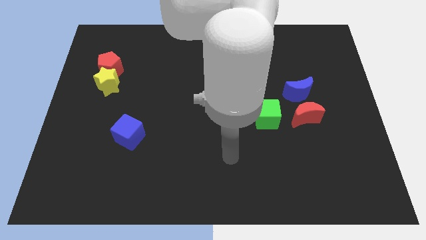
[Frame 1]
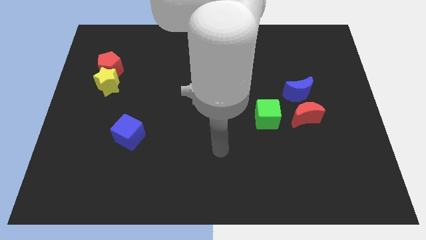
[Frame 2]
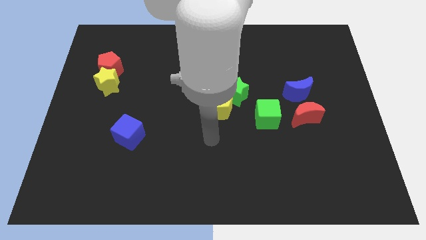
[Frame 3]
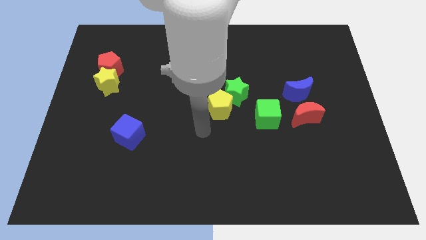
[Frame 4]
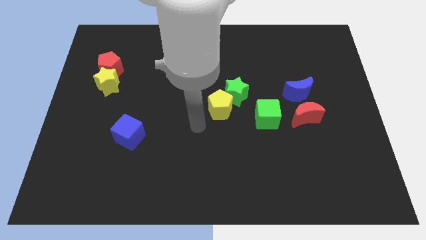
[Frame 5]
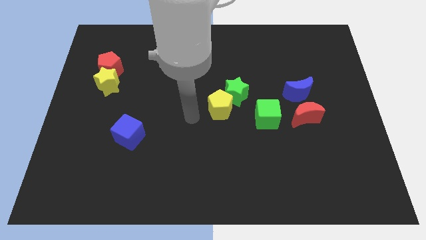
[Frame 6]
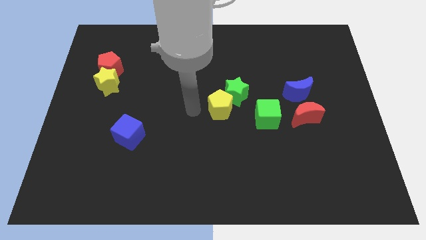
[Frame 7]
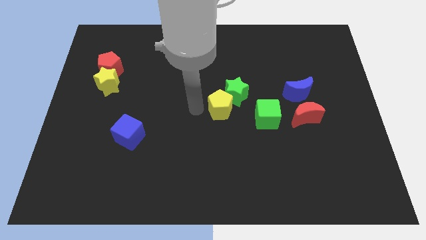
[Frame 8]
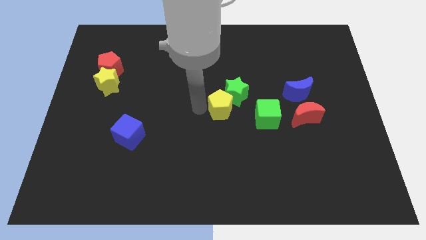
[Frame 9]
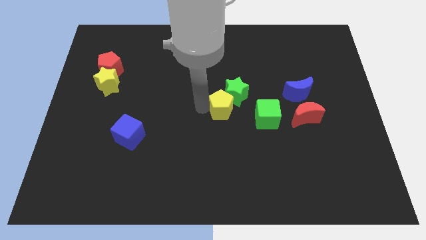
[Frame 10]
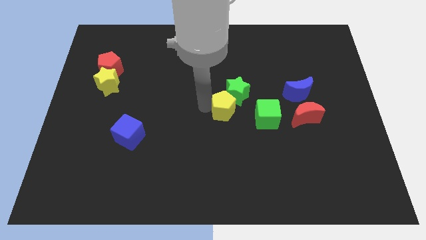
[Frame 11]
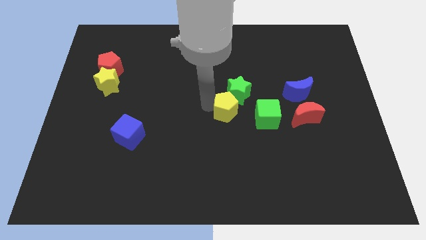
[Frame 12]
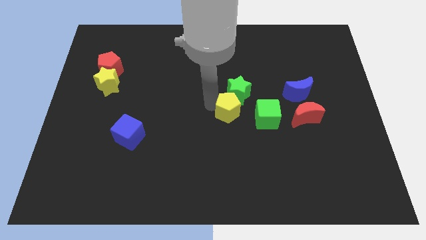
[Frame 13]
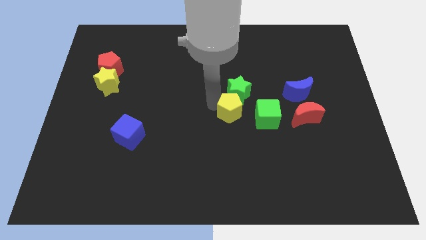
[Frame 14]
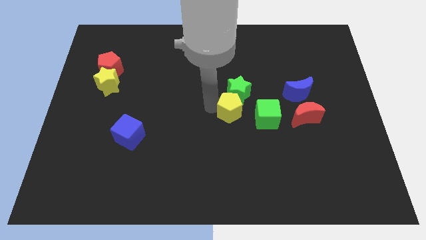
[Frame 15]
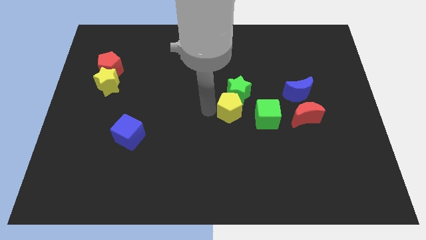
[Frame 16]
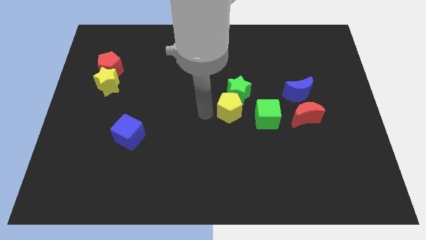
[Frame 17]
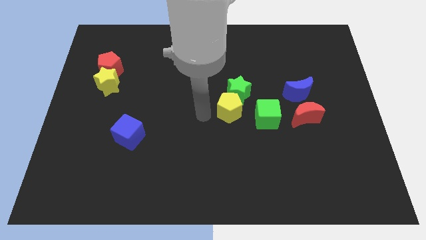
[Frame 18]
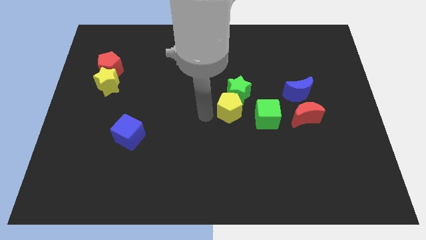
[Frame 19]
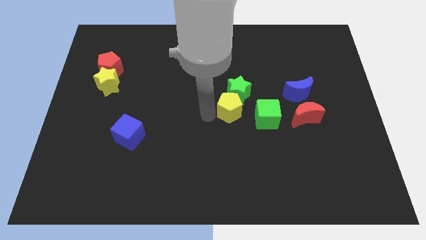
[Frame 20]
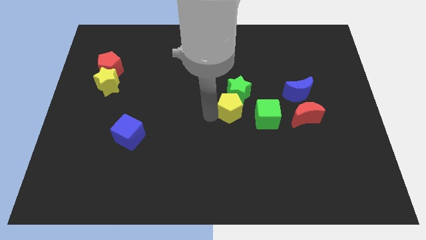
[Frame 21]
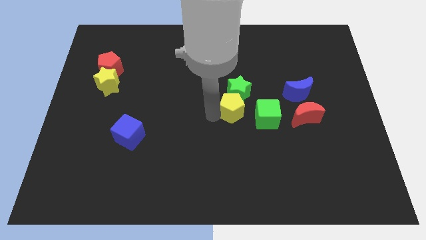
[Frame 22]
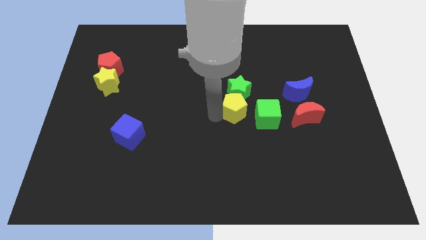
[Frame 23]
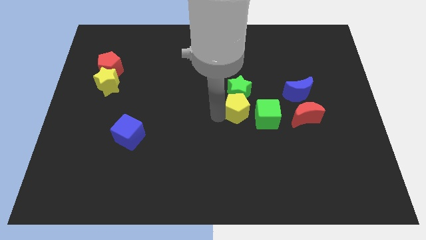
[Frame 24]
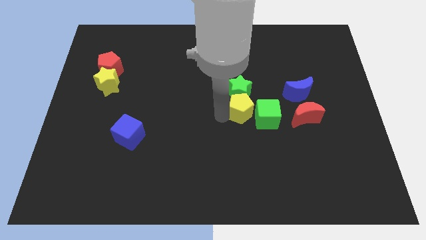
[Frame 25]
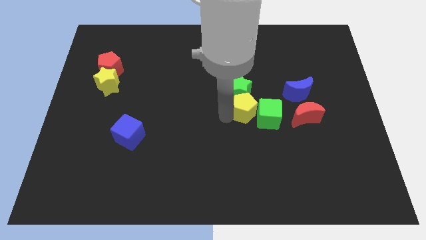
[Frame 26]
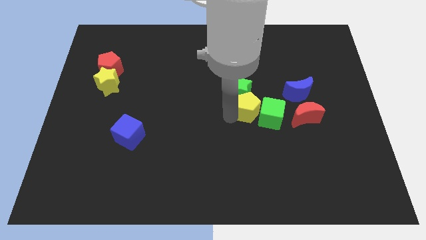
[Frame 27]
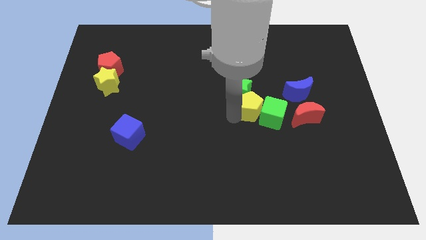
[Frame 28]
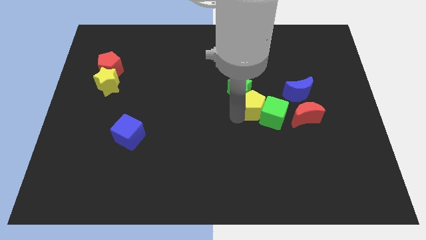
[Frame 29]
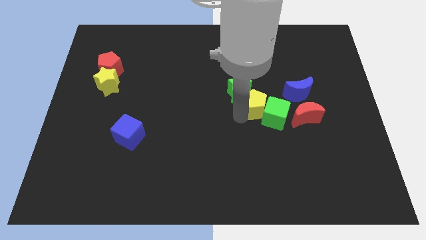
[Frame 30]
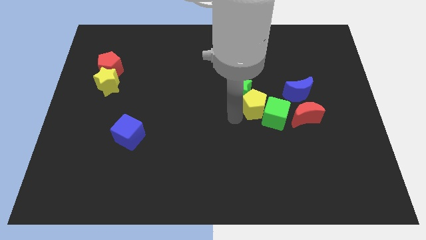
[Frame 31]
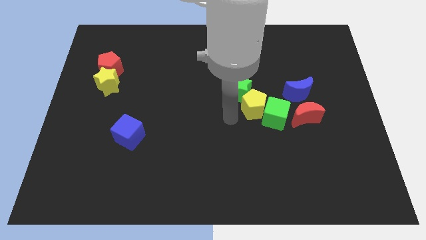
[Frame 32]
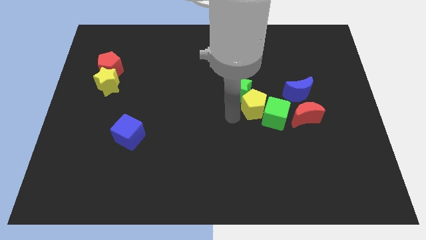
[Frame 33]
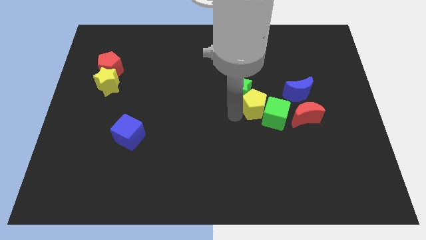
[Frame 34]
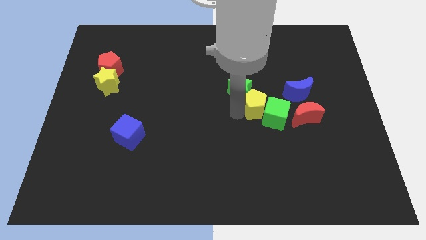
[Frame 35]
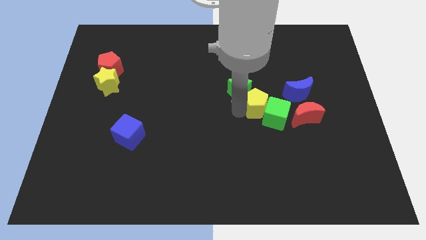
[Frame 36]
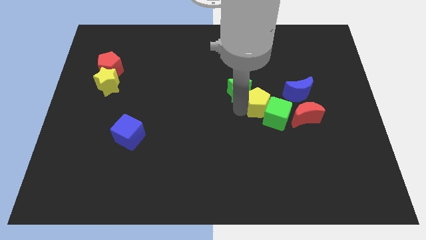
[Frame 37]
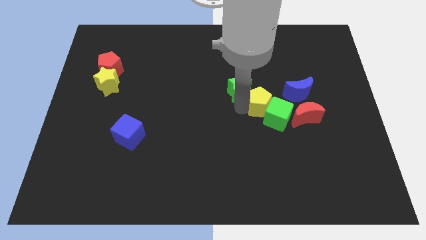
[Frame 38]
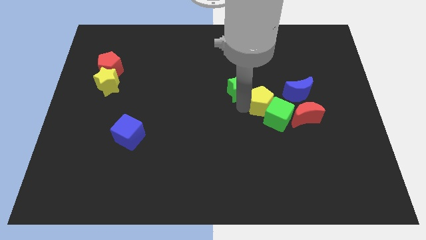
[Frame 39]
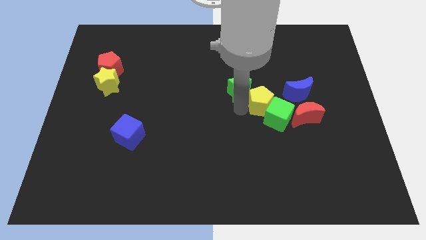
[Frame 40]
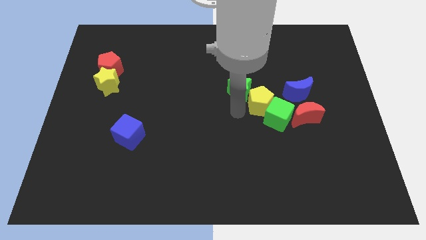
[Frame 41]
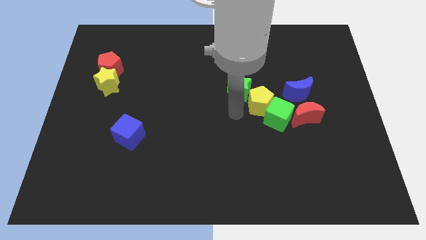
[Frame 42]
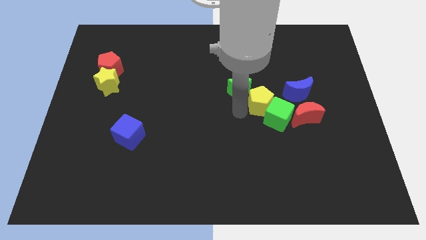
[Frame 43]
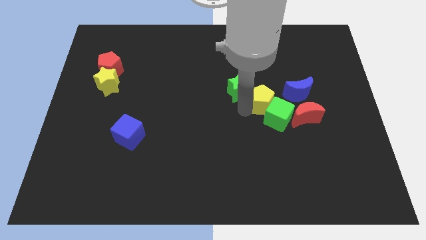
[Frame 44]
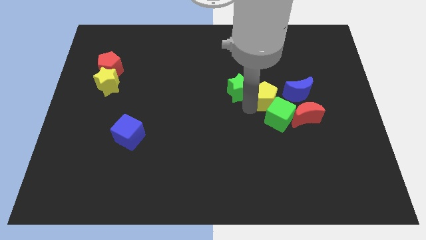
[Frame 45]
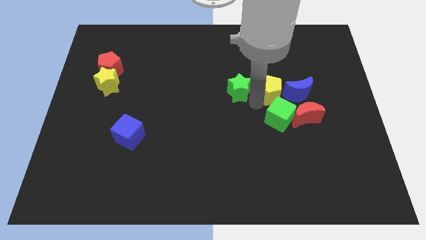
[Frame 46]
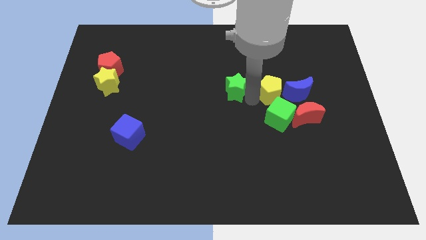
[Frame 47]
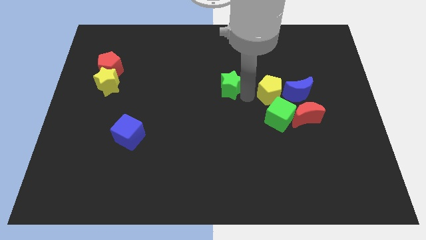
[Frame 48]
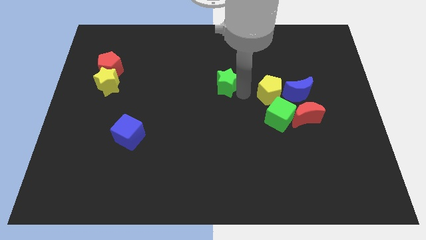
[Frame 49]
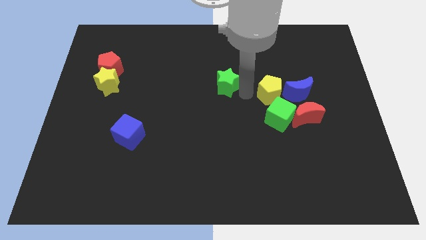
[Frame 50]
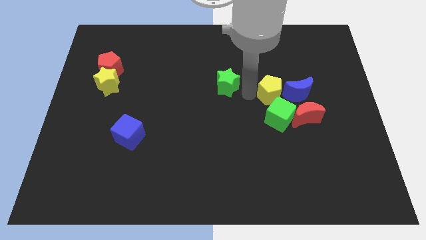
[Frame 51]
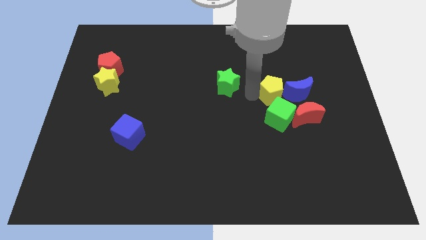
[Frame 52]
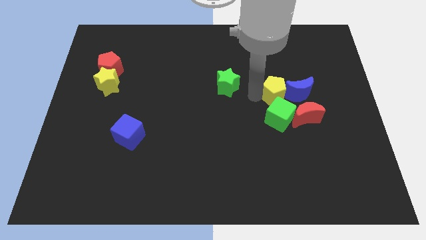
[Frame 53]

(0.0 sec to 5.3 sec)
put the yellow pentagon close to the blue moon
